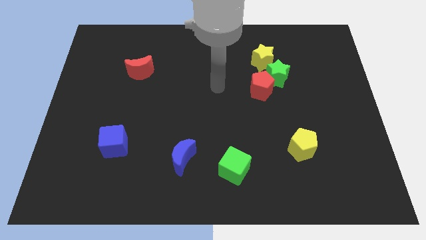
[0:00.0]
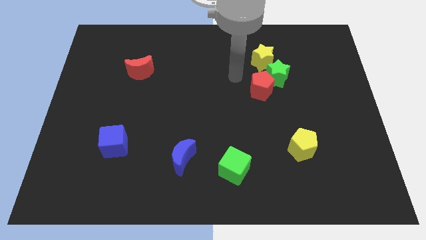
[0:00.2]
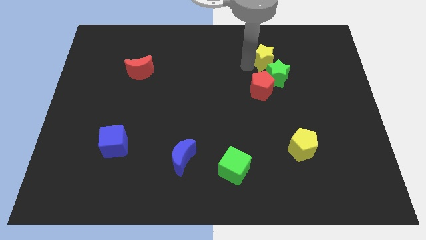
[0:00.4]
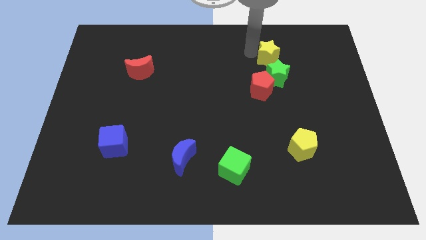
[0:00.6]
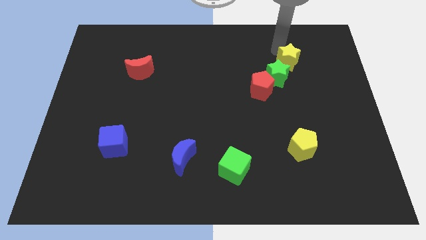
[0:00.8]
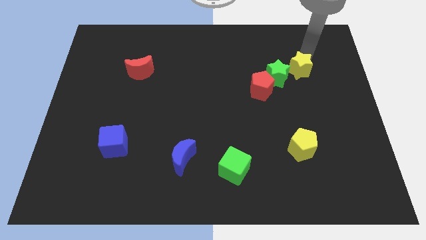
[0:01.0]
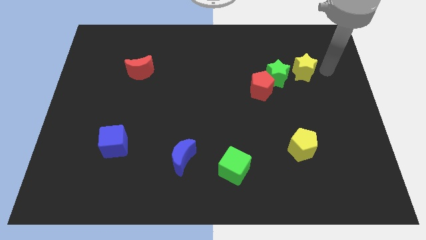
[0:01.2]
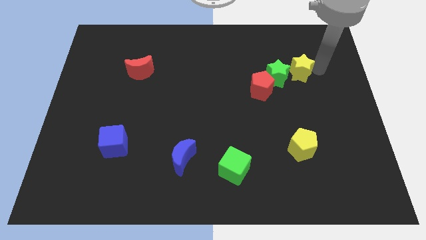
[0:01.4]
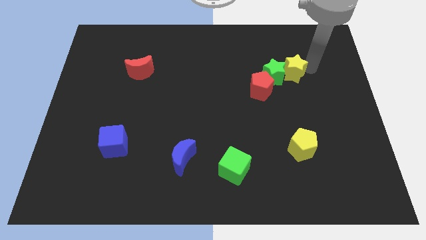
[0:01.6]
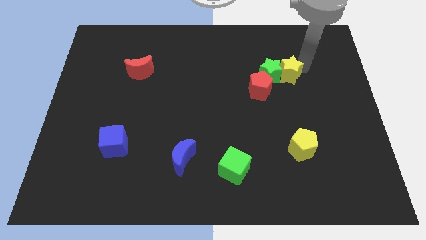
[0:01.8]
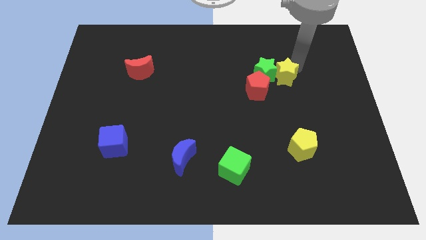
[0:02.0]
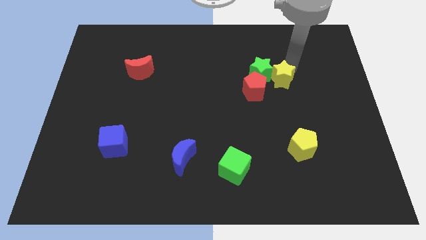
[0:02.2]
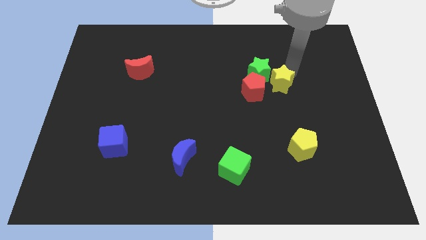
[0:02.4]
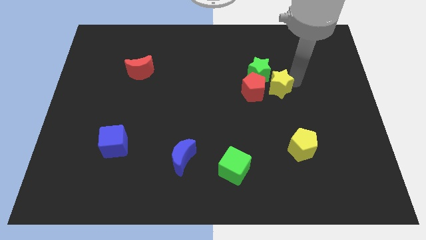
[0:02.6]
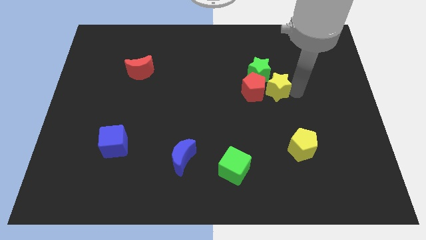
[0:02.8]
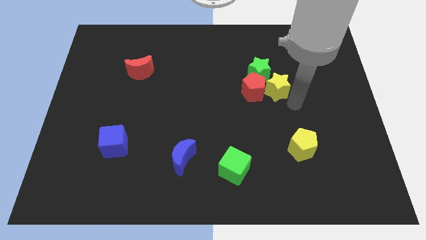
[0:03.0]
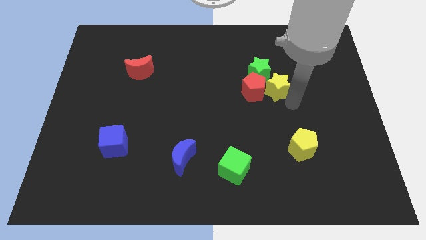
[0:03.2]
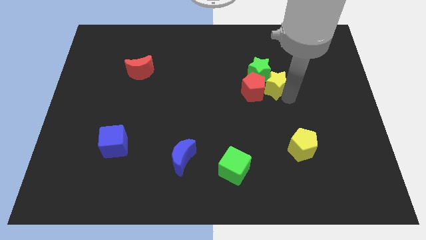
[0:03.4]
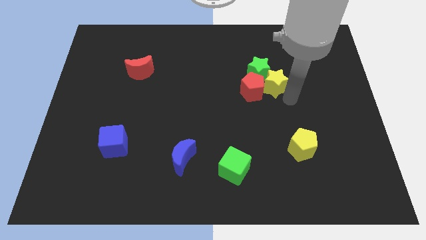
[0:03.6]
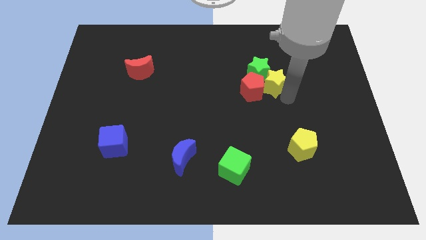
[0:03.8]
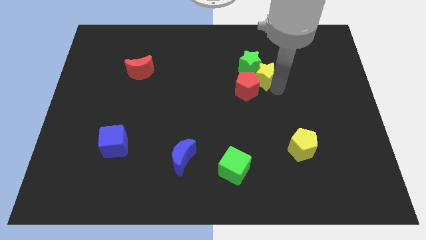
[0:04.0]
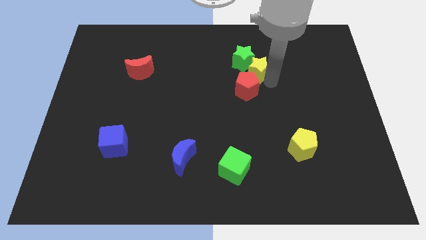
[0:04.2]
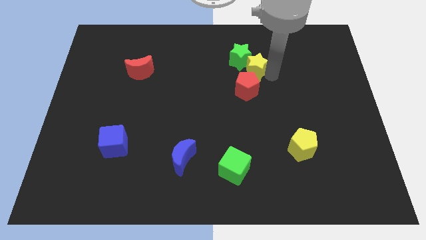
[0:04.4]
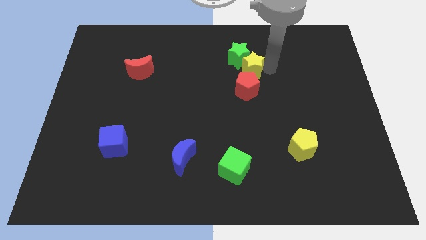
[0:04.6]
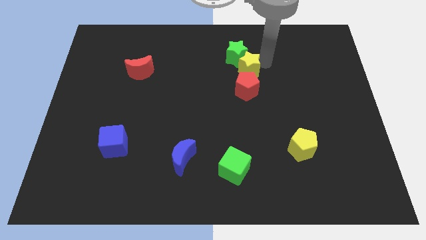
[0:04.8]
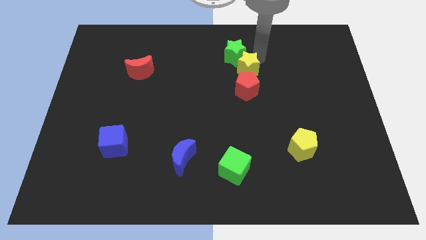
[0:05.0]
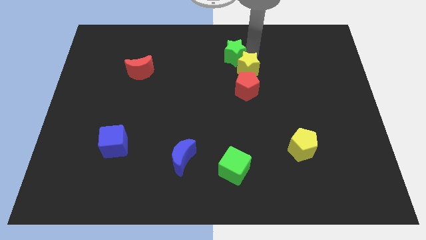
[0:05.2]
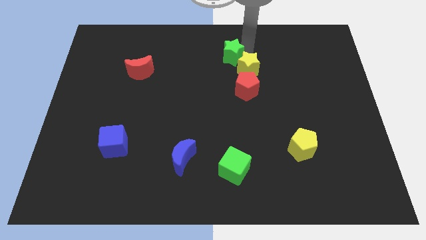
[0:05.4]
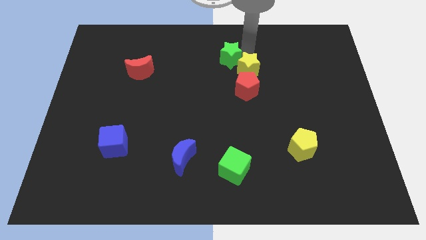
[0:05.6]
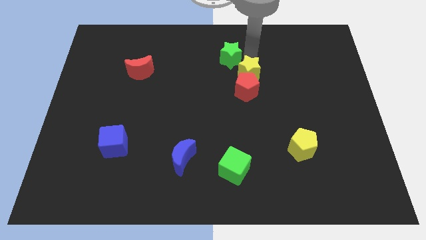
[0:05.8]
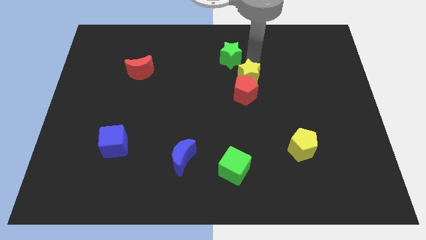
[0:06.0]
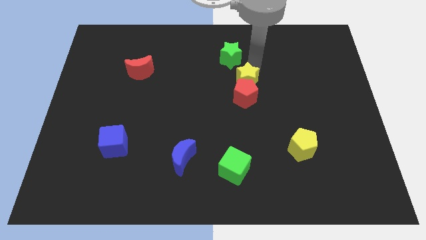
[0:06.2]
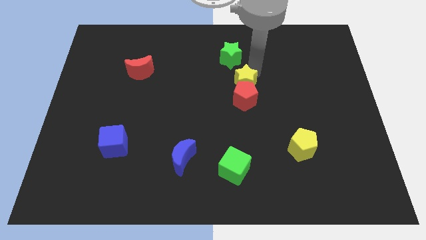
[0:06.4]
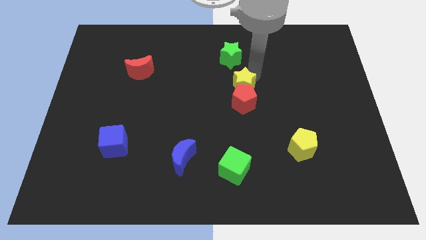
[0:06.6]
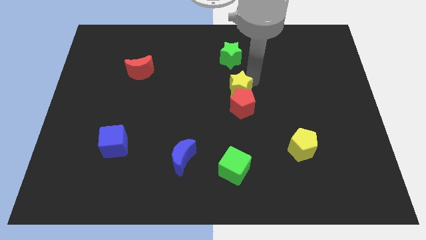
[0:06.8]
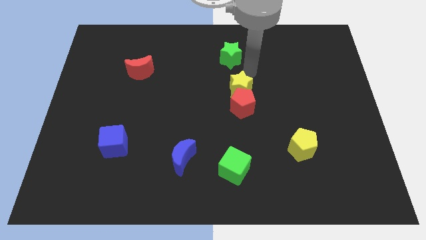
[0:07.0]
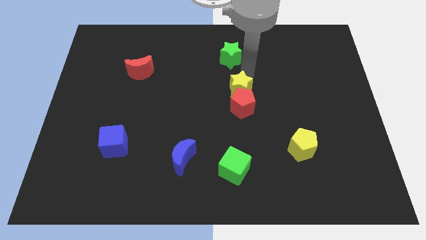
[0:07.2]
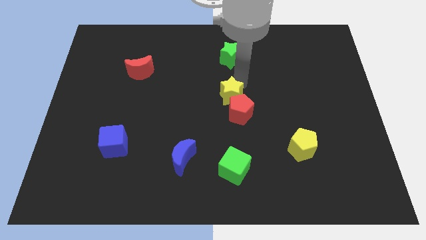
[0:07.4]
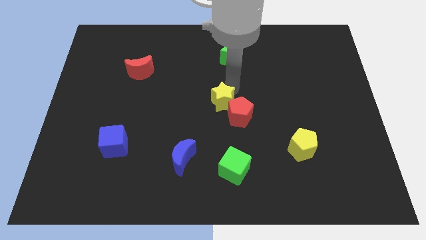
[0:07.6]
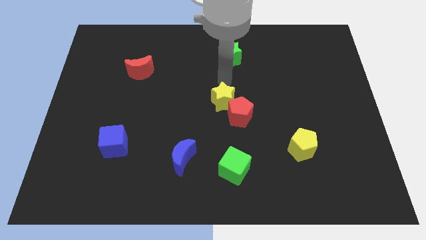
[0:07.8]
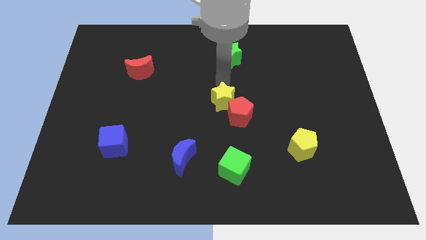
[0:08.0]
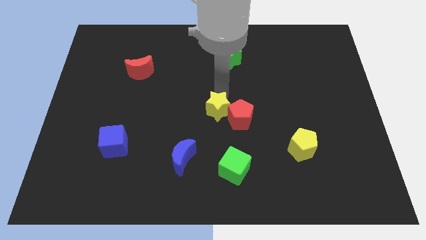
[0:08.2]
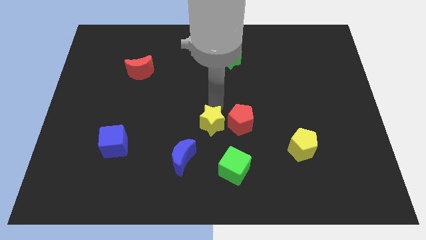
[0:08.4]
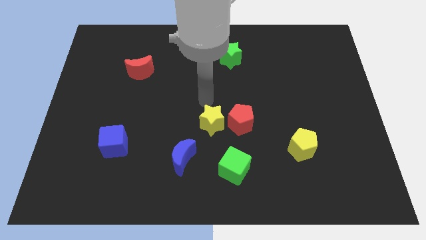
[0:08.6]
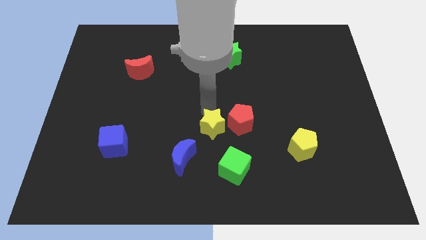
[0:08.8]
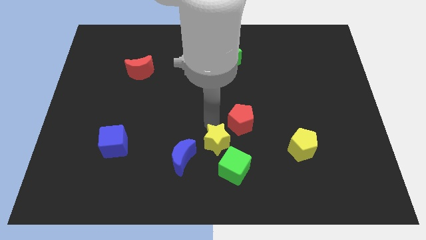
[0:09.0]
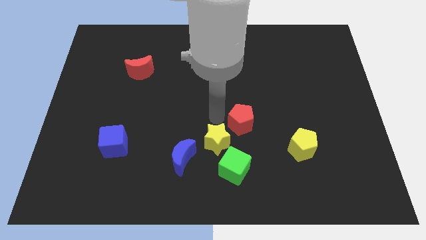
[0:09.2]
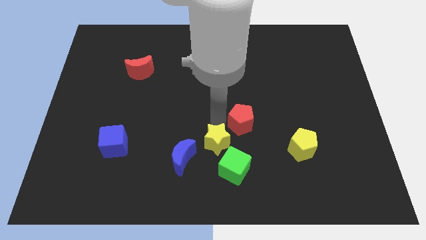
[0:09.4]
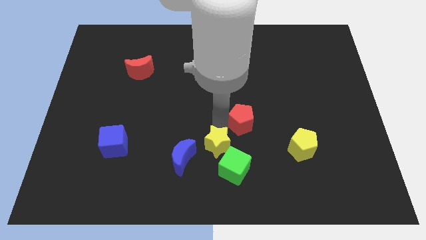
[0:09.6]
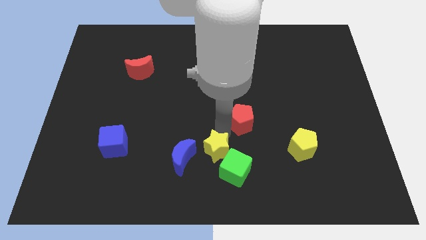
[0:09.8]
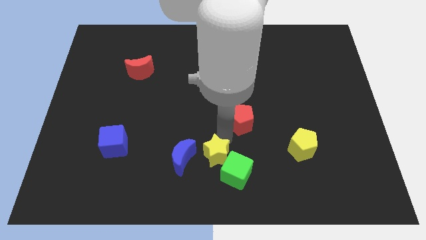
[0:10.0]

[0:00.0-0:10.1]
slide the yellow star to the bottom

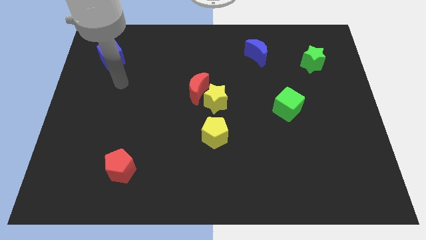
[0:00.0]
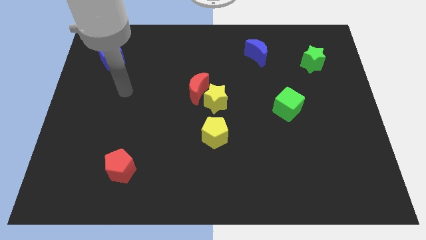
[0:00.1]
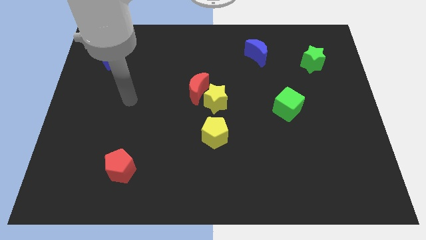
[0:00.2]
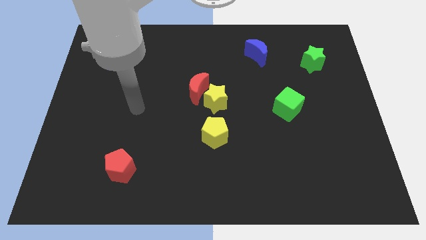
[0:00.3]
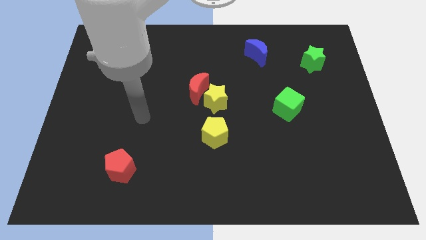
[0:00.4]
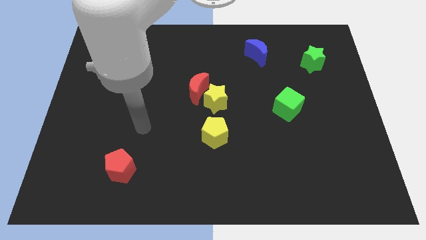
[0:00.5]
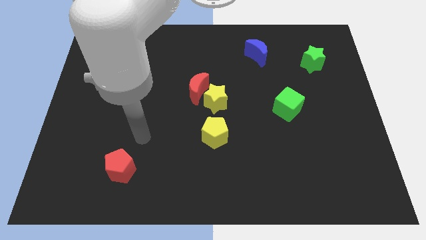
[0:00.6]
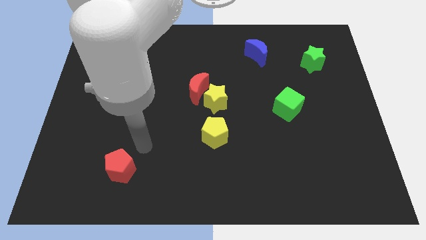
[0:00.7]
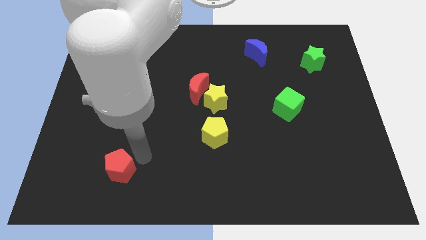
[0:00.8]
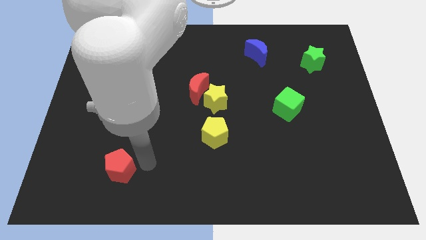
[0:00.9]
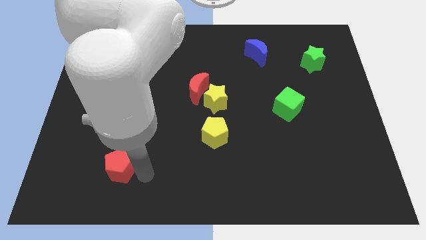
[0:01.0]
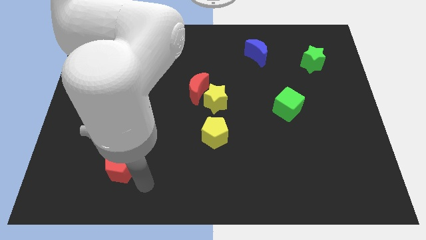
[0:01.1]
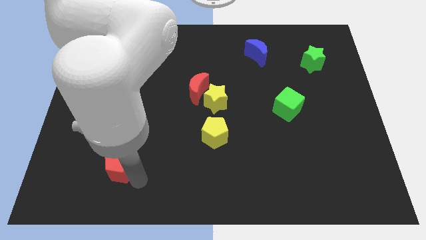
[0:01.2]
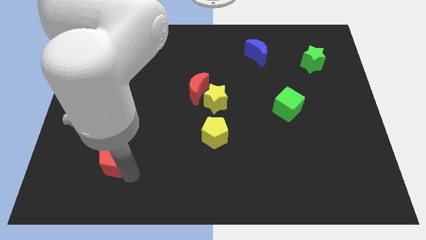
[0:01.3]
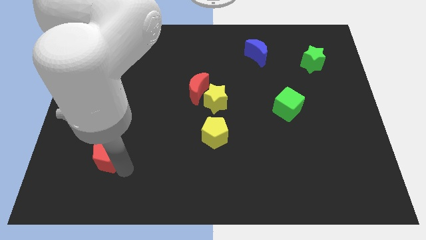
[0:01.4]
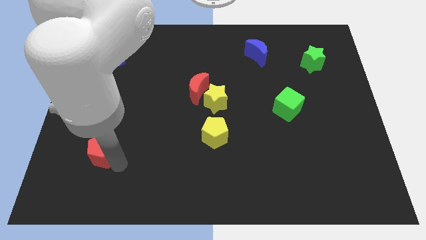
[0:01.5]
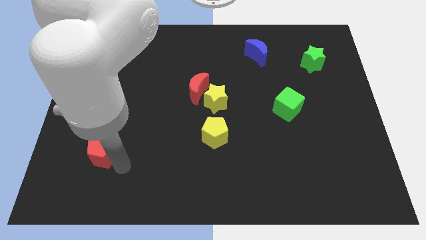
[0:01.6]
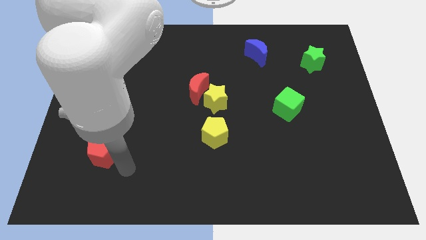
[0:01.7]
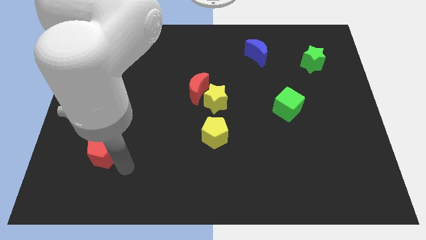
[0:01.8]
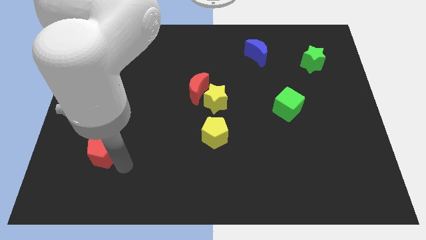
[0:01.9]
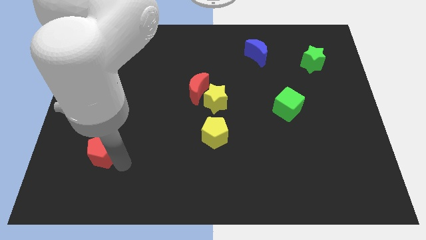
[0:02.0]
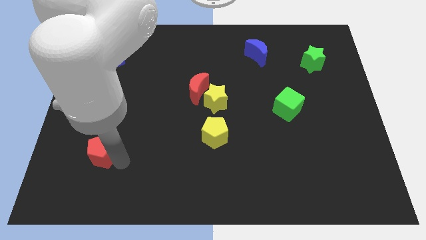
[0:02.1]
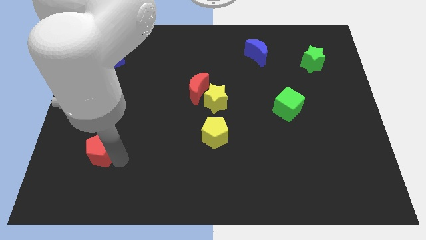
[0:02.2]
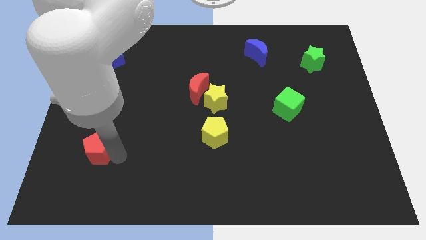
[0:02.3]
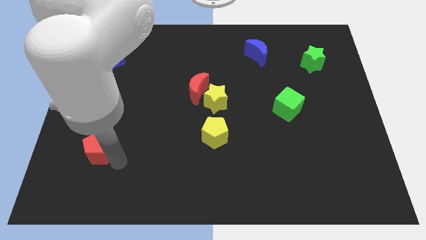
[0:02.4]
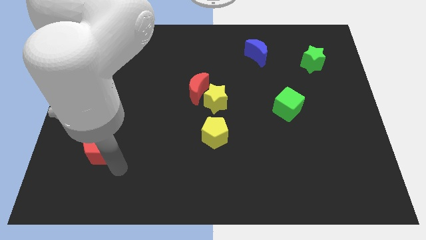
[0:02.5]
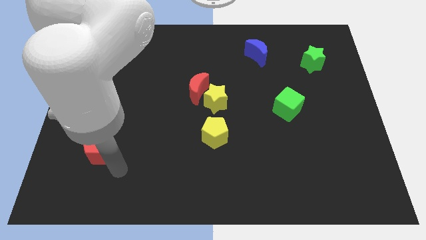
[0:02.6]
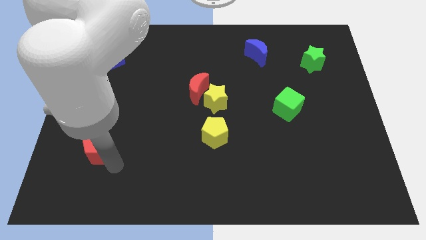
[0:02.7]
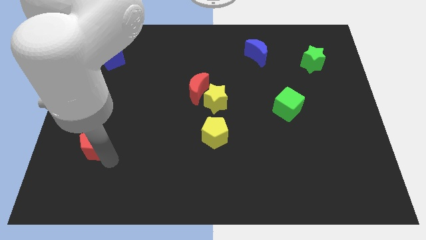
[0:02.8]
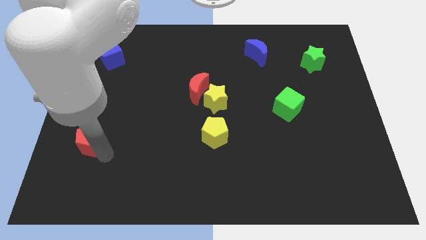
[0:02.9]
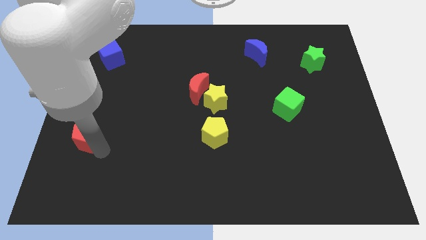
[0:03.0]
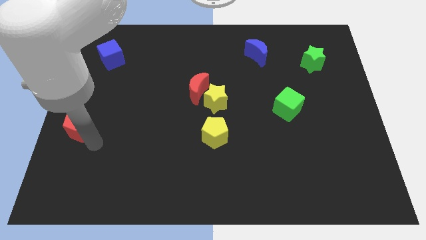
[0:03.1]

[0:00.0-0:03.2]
put the red pentagon to the left side
